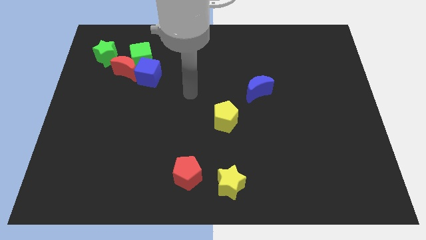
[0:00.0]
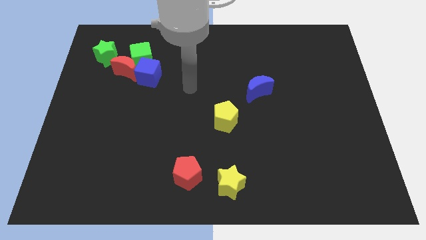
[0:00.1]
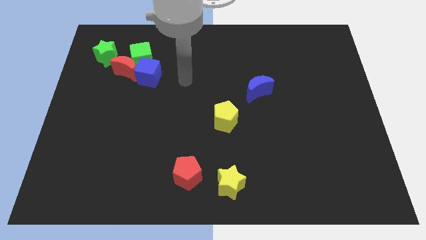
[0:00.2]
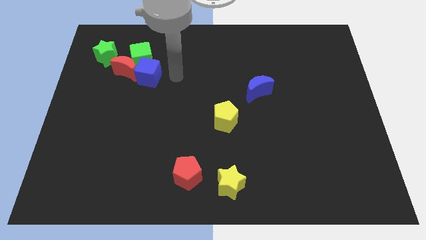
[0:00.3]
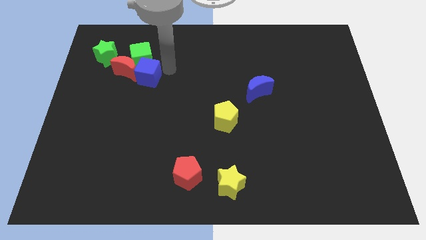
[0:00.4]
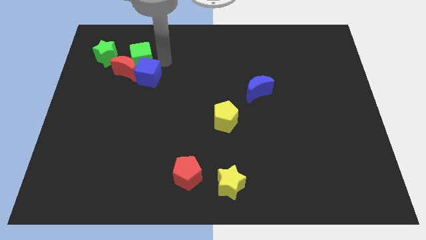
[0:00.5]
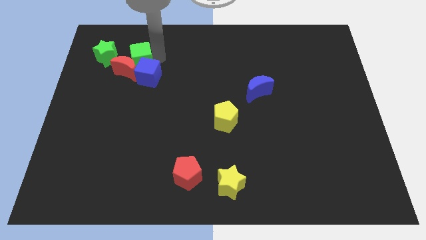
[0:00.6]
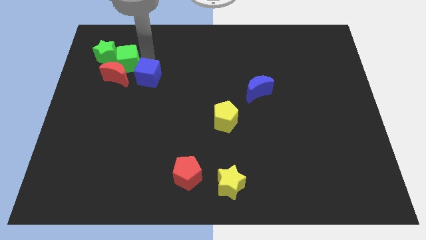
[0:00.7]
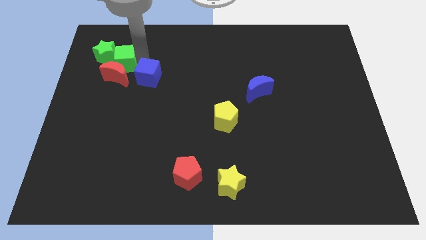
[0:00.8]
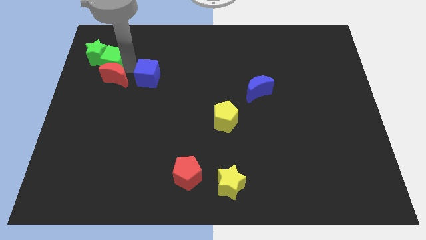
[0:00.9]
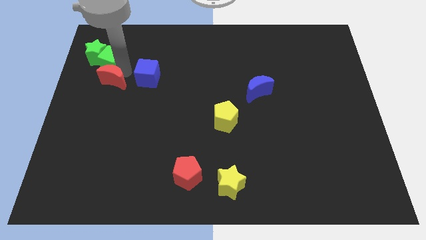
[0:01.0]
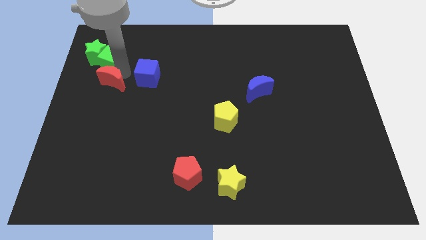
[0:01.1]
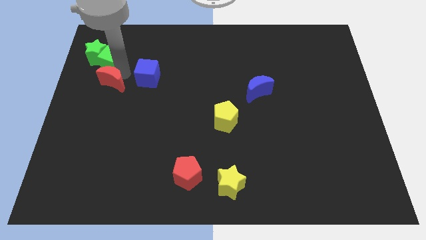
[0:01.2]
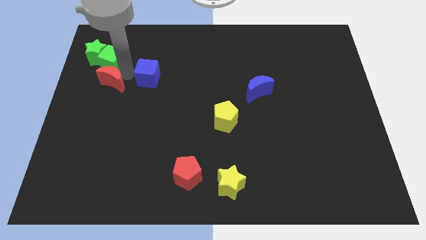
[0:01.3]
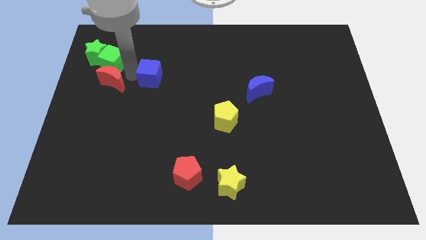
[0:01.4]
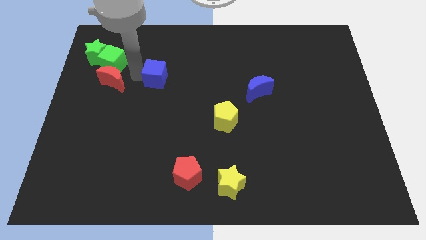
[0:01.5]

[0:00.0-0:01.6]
move the blue cube away from the red moon and green cube

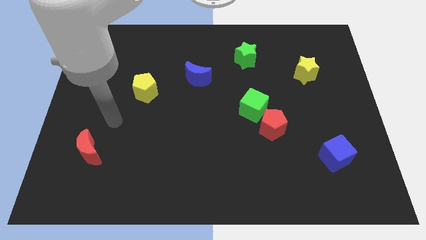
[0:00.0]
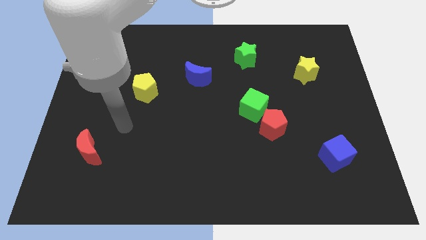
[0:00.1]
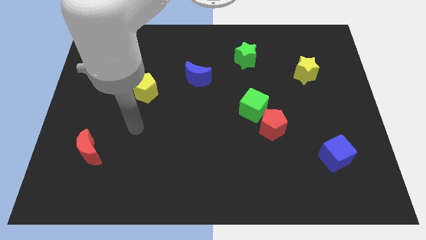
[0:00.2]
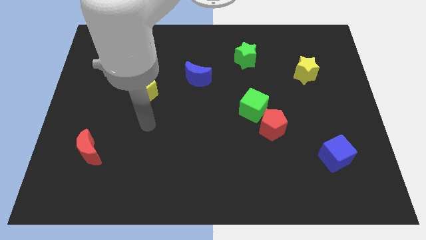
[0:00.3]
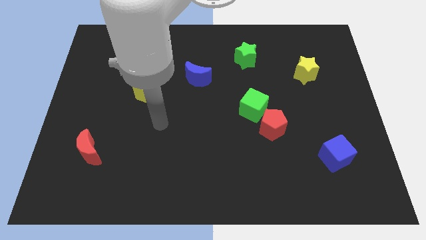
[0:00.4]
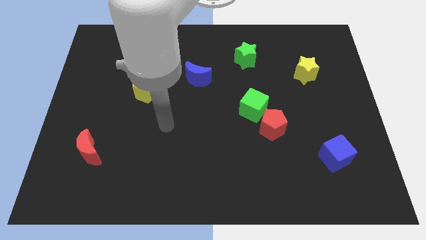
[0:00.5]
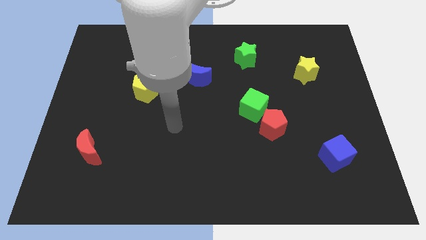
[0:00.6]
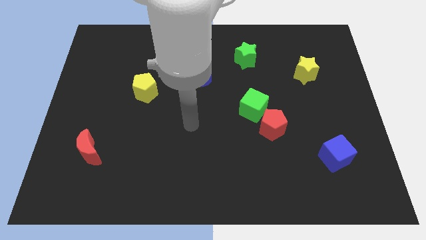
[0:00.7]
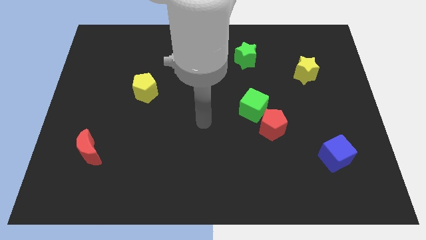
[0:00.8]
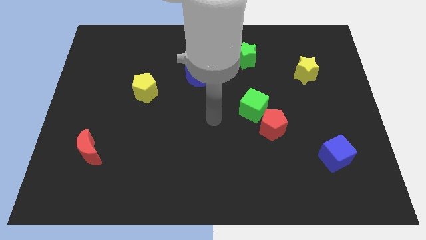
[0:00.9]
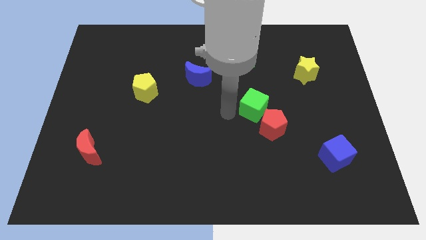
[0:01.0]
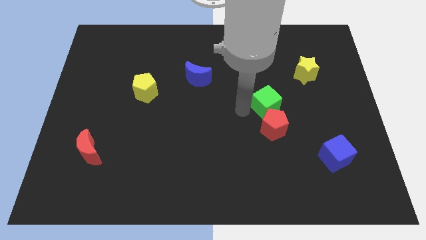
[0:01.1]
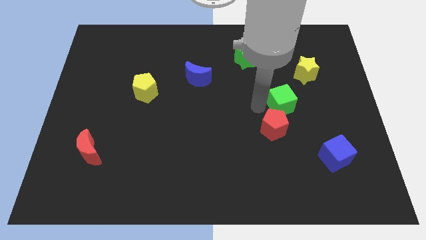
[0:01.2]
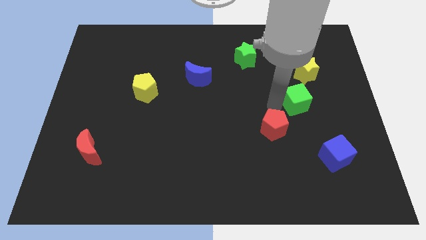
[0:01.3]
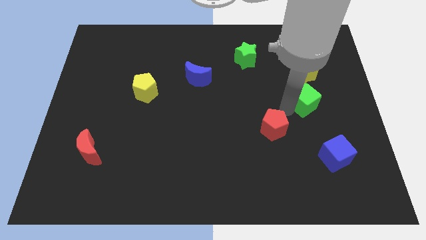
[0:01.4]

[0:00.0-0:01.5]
move the red pentagon away from the green cube

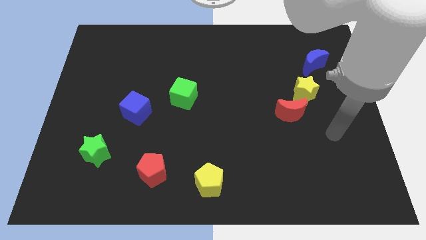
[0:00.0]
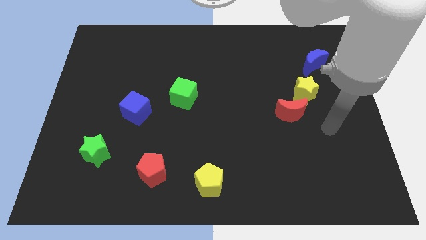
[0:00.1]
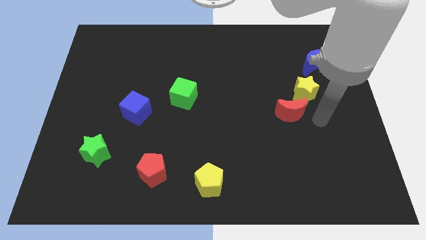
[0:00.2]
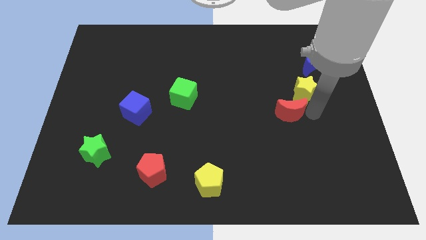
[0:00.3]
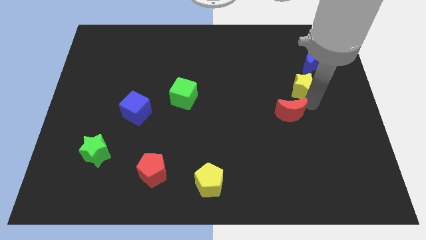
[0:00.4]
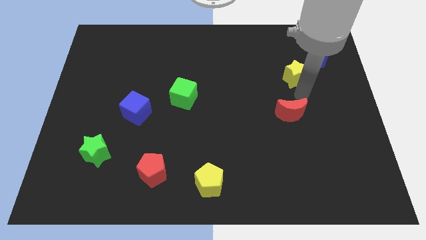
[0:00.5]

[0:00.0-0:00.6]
pull the red moon apart from the yellow star

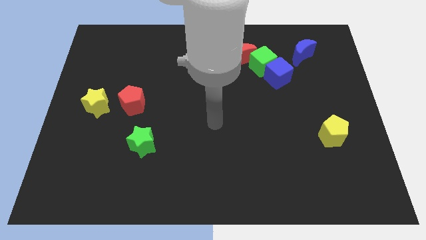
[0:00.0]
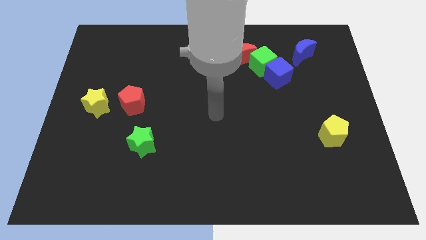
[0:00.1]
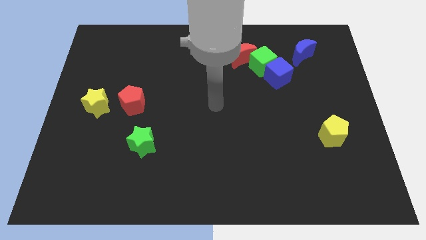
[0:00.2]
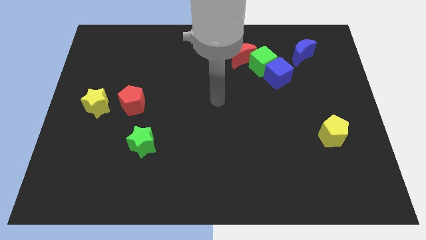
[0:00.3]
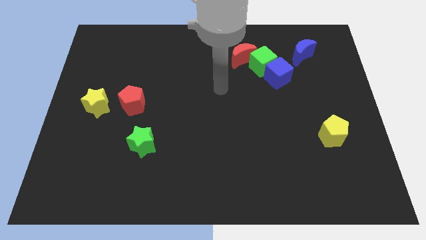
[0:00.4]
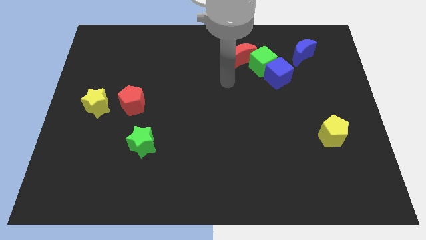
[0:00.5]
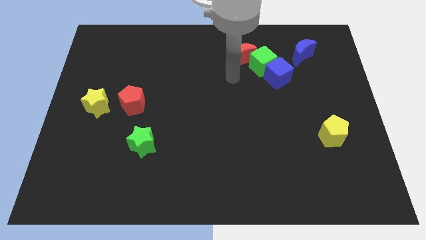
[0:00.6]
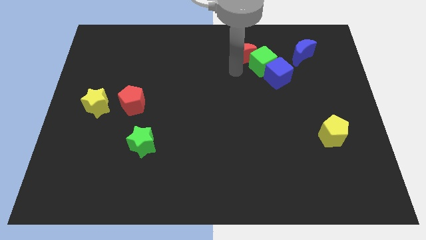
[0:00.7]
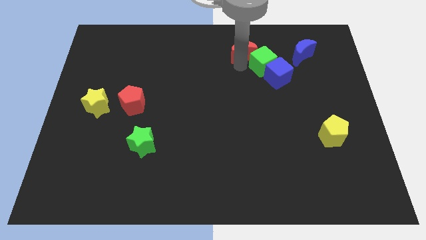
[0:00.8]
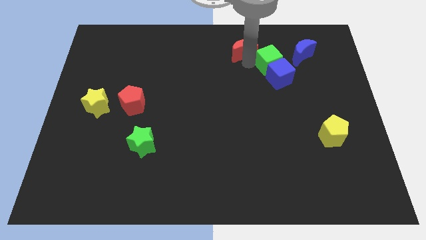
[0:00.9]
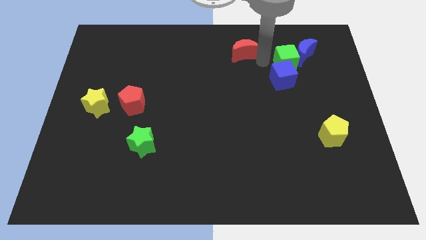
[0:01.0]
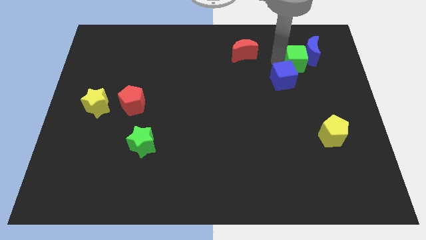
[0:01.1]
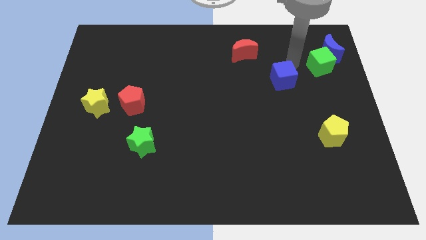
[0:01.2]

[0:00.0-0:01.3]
pull the blue cube apart from the green cube

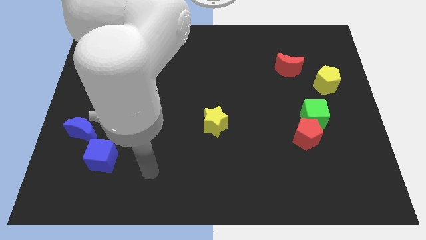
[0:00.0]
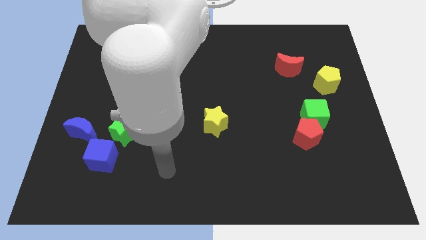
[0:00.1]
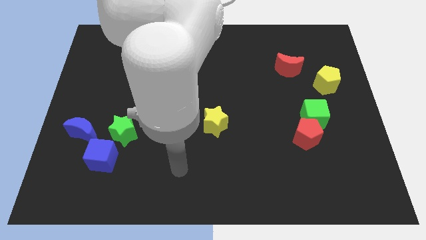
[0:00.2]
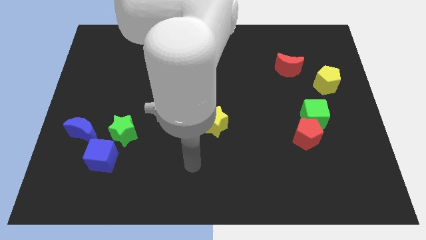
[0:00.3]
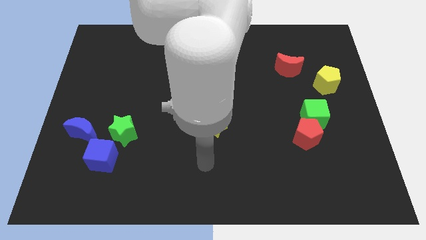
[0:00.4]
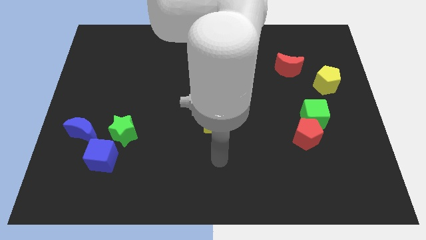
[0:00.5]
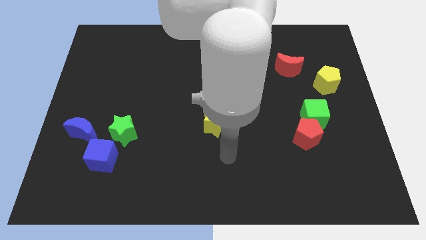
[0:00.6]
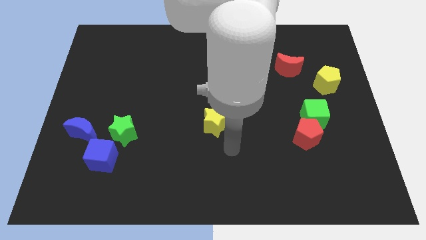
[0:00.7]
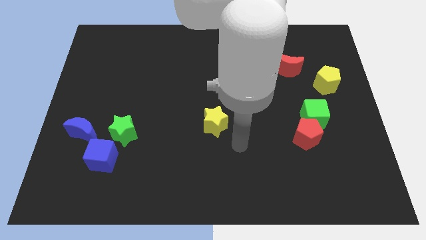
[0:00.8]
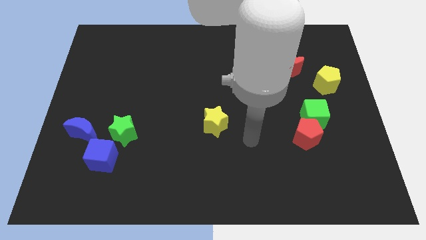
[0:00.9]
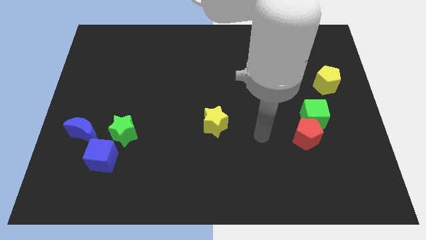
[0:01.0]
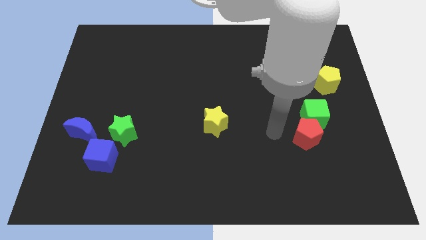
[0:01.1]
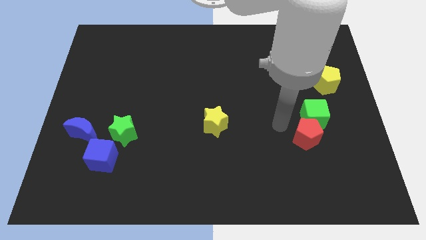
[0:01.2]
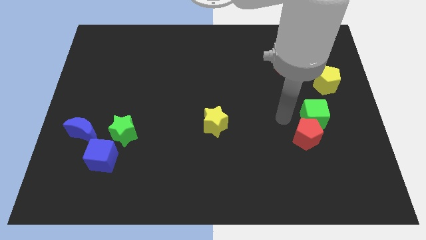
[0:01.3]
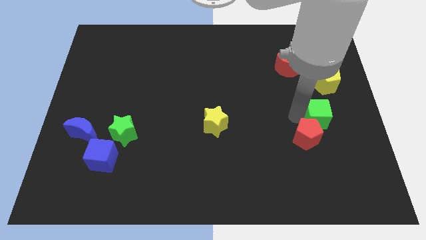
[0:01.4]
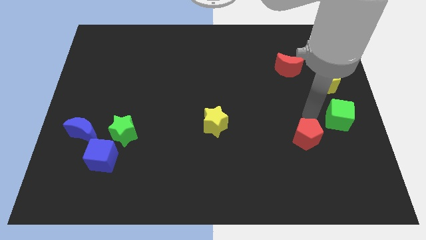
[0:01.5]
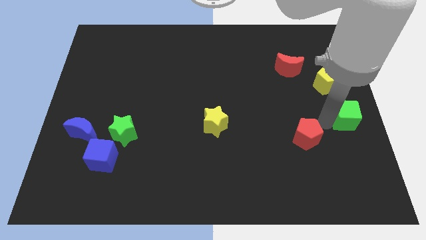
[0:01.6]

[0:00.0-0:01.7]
pull the red pentagon apart from the green cube

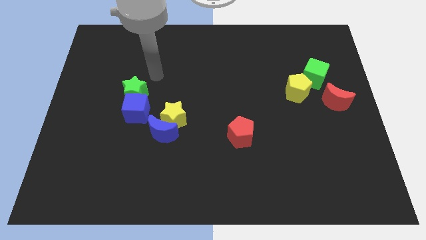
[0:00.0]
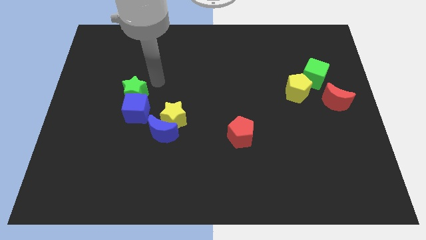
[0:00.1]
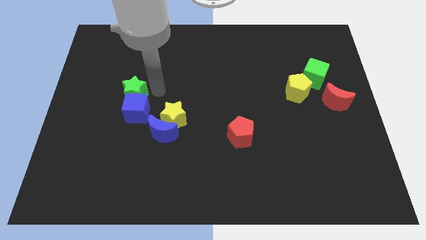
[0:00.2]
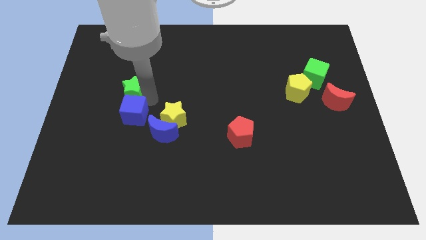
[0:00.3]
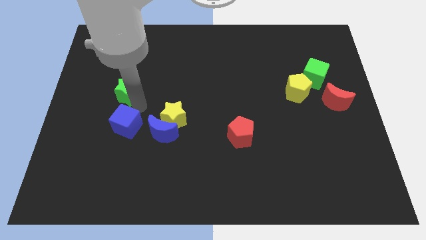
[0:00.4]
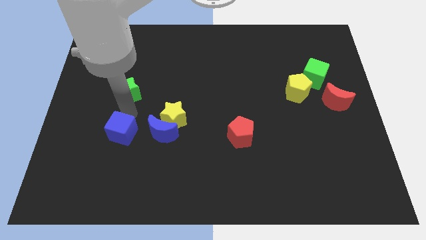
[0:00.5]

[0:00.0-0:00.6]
pull the green star apart from the blue cube

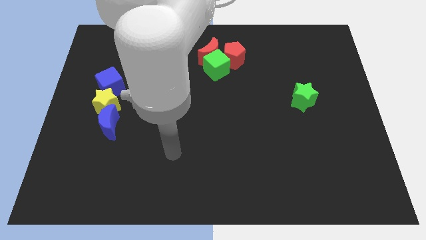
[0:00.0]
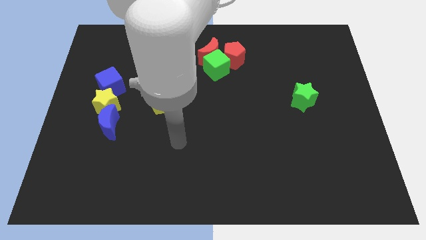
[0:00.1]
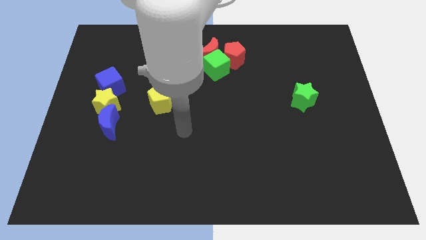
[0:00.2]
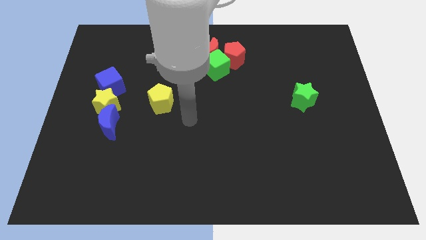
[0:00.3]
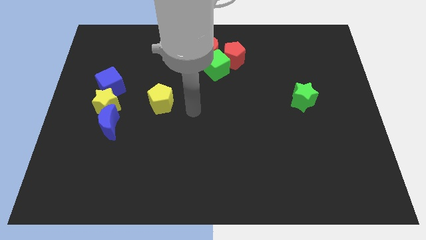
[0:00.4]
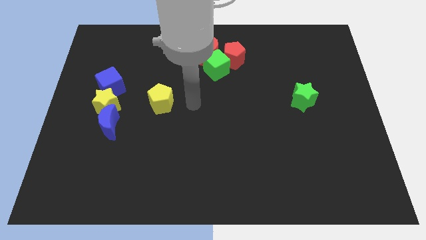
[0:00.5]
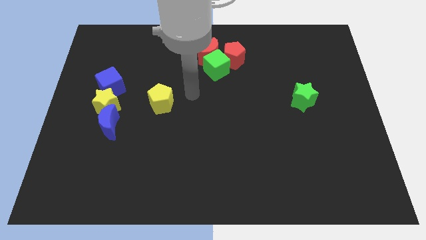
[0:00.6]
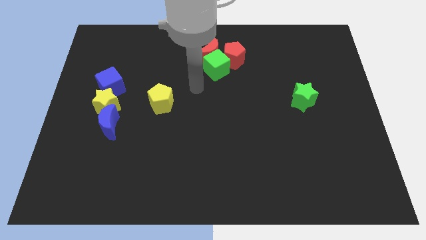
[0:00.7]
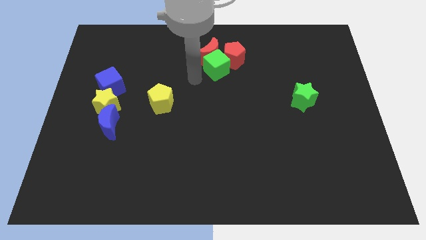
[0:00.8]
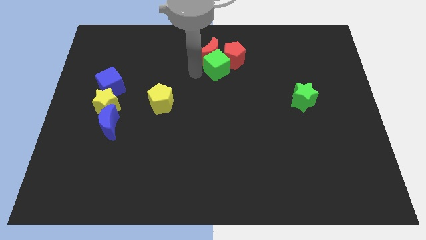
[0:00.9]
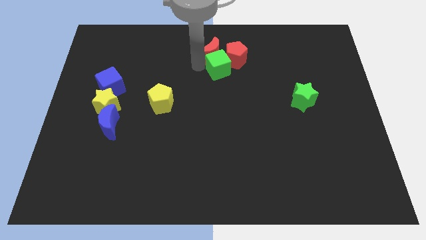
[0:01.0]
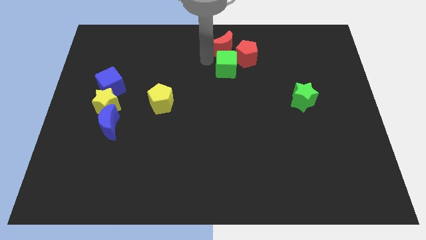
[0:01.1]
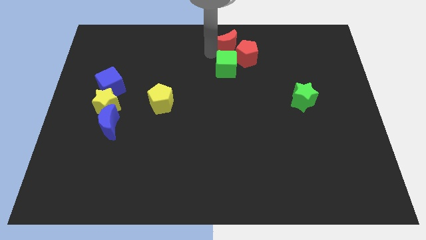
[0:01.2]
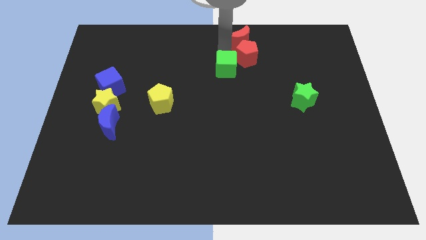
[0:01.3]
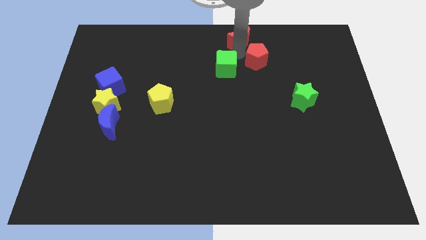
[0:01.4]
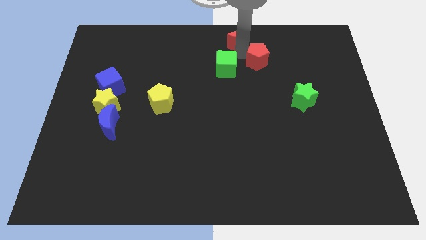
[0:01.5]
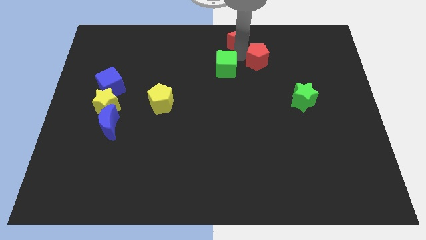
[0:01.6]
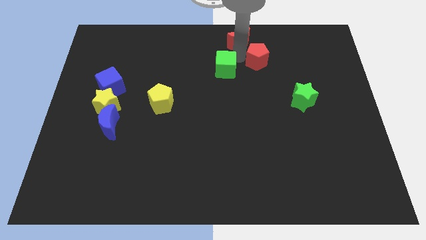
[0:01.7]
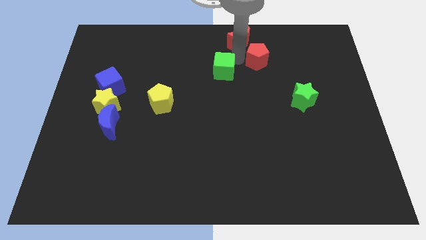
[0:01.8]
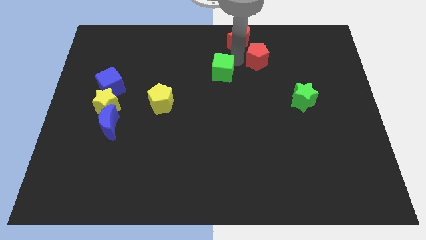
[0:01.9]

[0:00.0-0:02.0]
pull the green cube apart from the red moon and red pentagon
